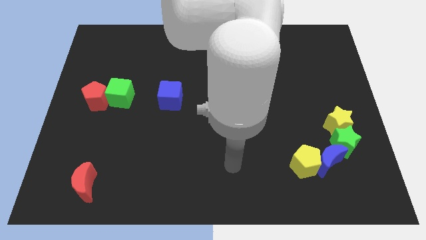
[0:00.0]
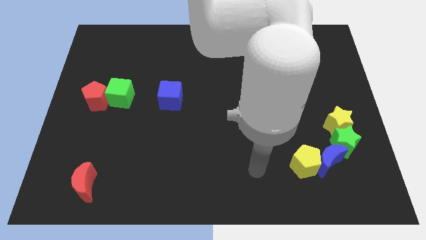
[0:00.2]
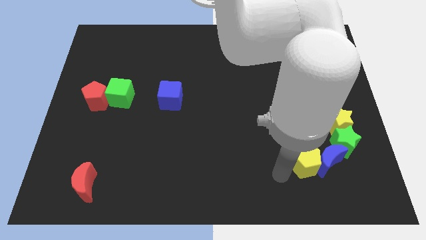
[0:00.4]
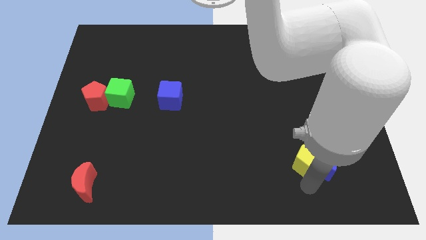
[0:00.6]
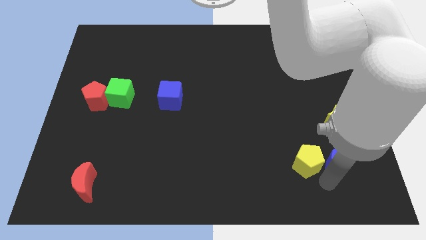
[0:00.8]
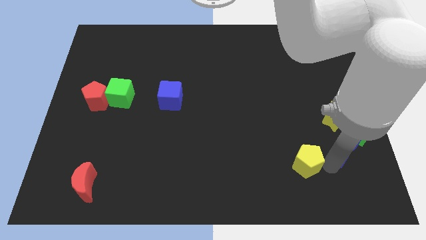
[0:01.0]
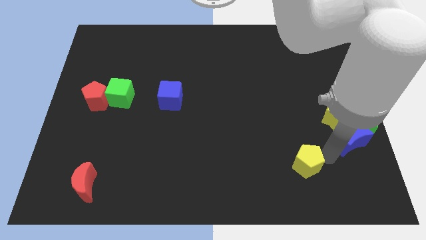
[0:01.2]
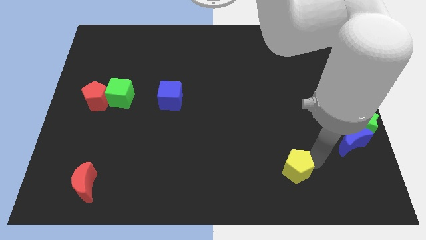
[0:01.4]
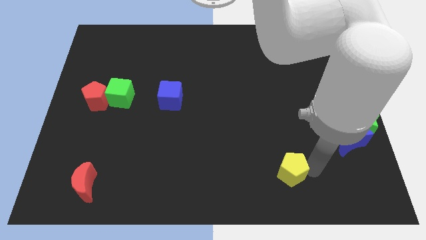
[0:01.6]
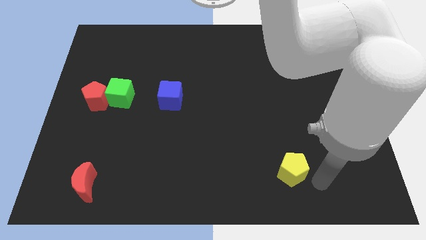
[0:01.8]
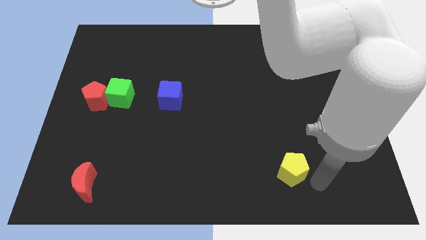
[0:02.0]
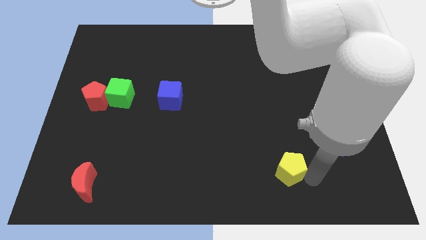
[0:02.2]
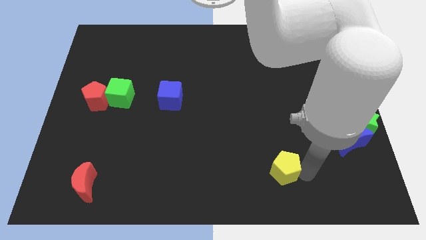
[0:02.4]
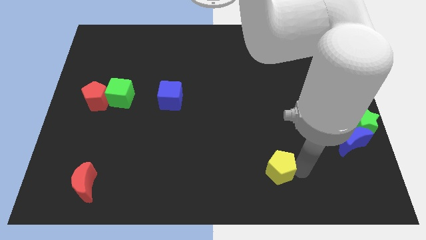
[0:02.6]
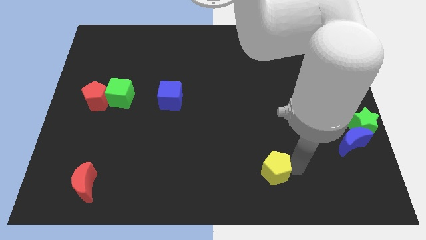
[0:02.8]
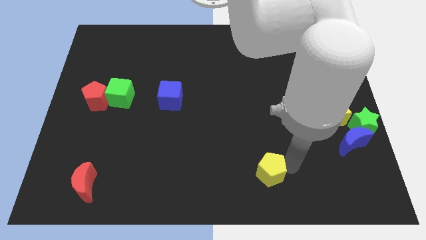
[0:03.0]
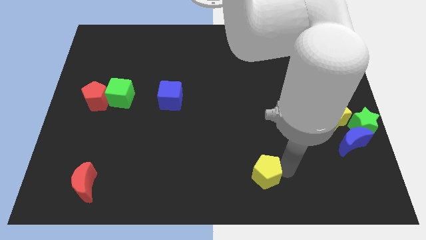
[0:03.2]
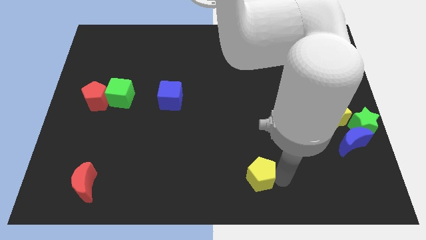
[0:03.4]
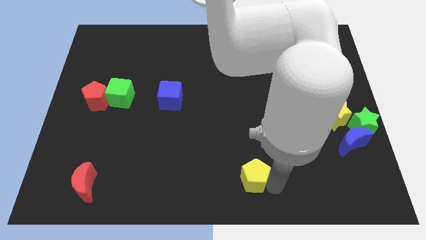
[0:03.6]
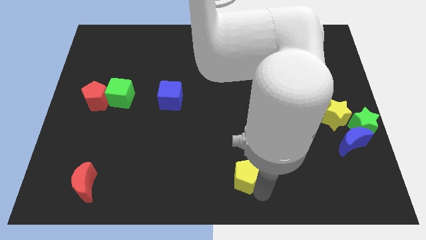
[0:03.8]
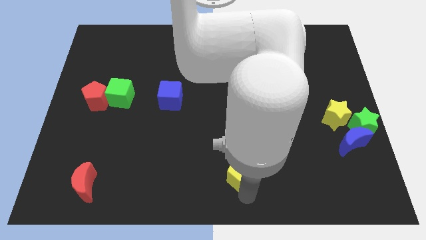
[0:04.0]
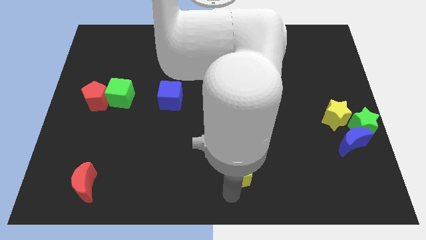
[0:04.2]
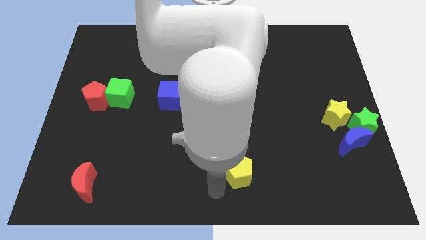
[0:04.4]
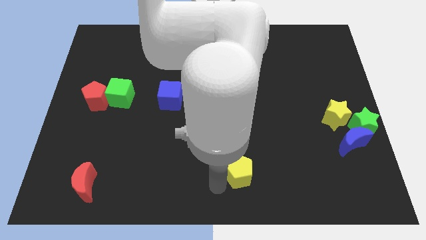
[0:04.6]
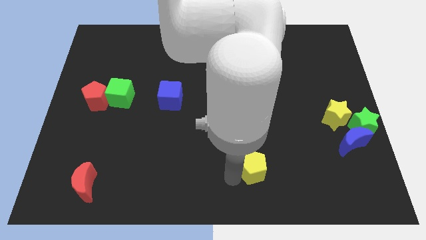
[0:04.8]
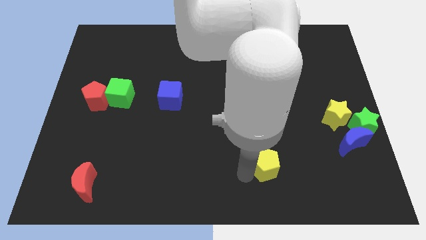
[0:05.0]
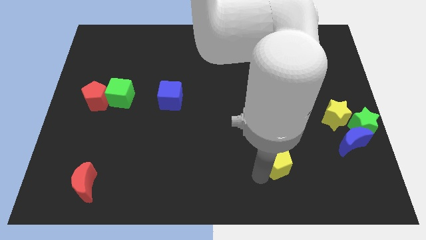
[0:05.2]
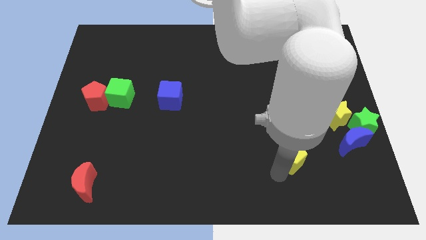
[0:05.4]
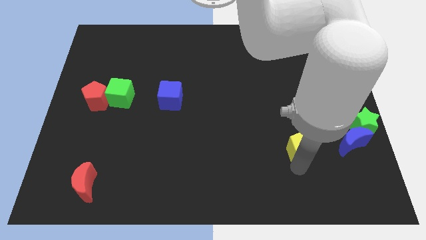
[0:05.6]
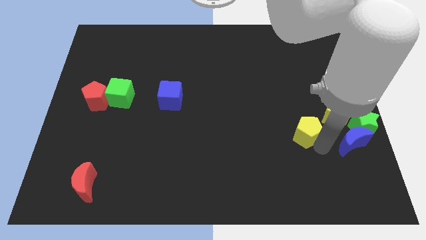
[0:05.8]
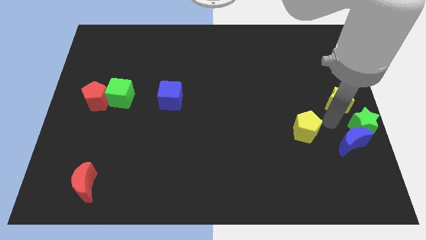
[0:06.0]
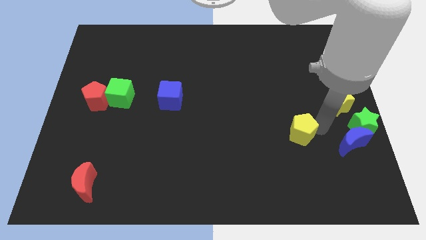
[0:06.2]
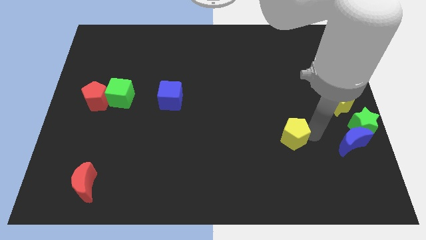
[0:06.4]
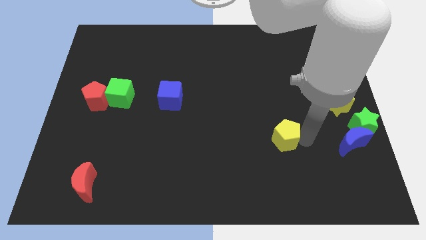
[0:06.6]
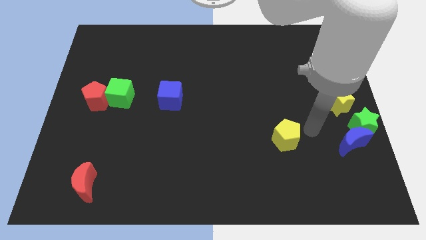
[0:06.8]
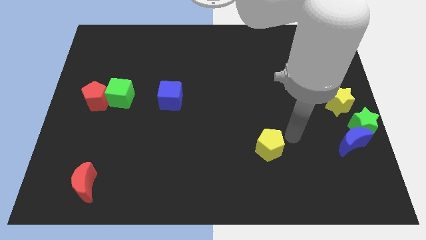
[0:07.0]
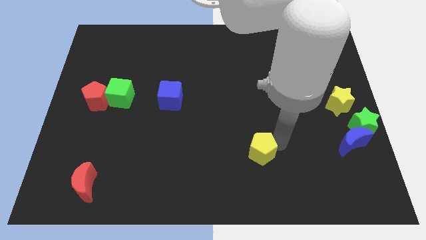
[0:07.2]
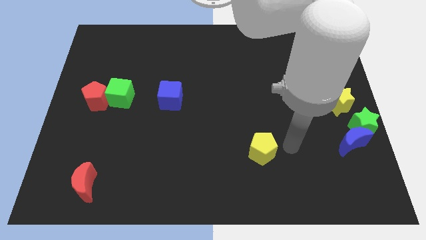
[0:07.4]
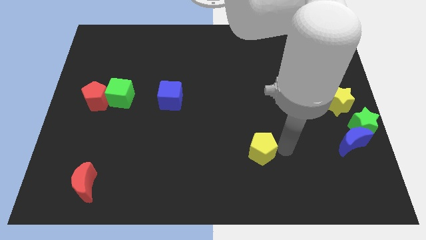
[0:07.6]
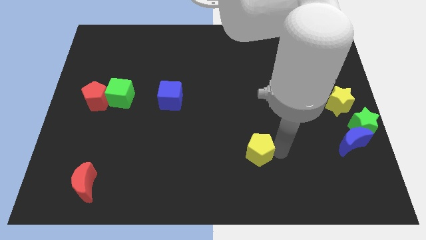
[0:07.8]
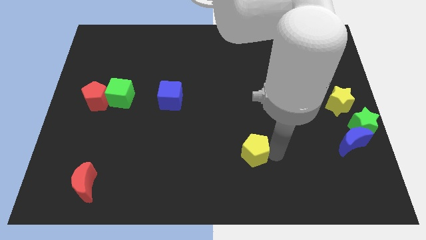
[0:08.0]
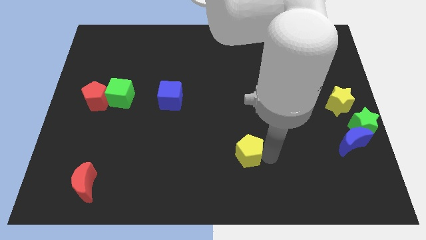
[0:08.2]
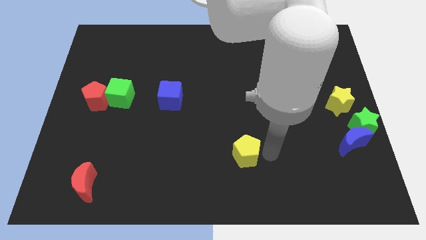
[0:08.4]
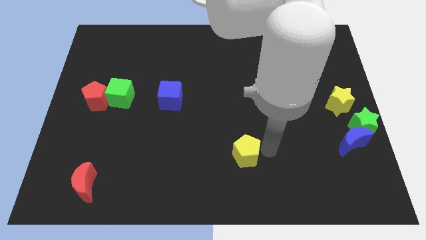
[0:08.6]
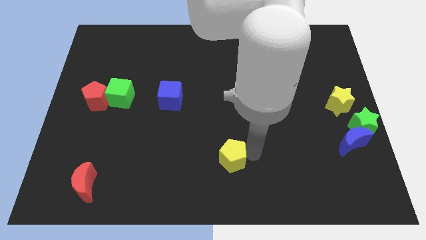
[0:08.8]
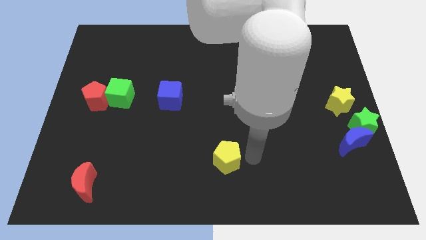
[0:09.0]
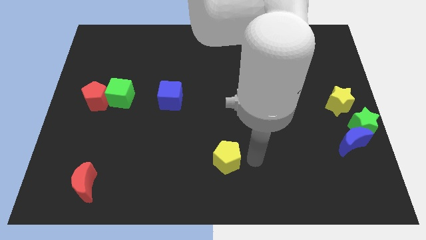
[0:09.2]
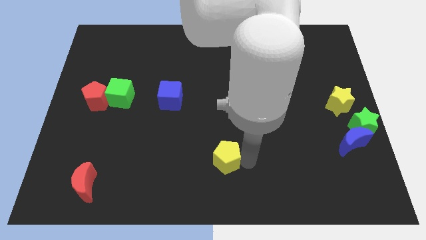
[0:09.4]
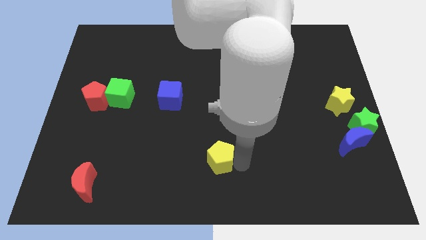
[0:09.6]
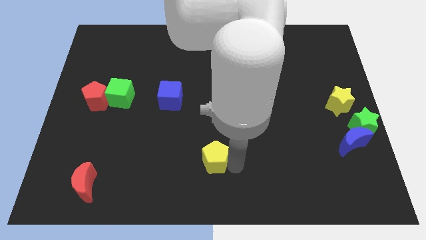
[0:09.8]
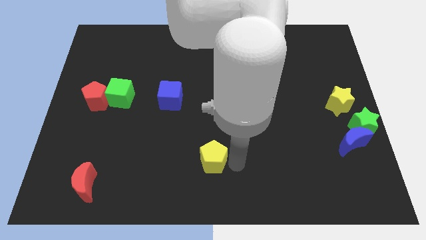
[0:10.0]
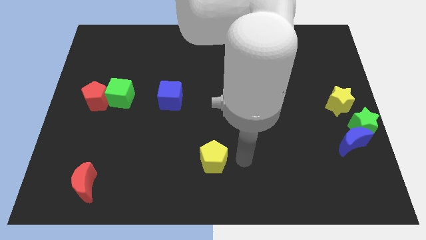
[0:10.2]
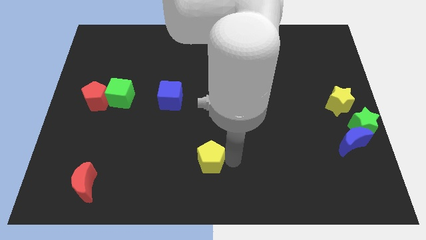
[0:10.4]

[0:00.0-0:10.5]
move the yellow pentagon to the left

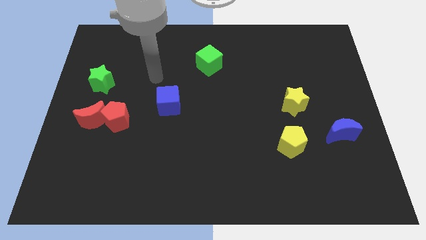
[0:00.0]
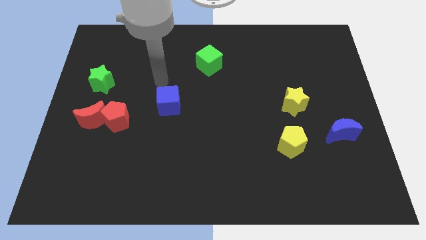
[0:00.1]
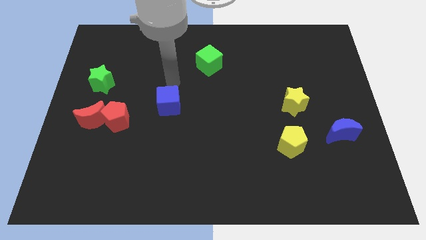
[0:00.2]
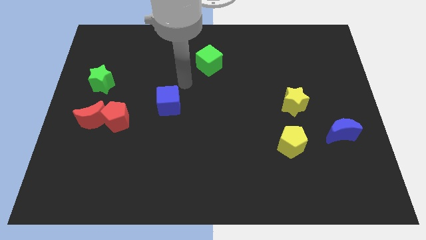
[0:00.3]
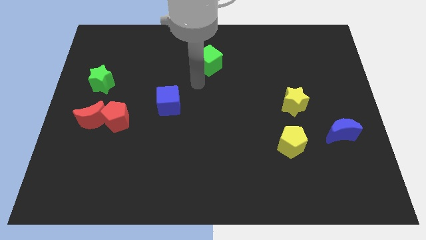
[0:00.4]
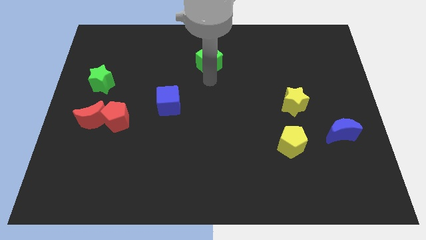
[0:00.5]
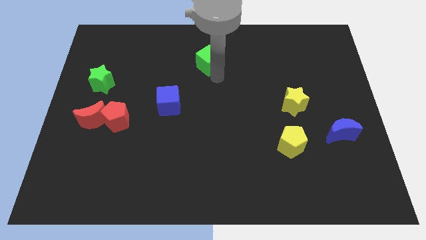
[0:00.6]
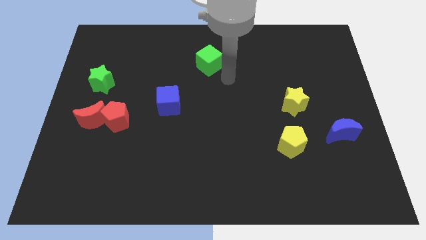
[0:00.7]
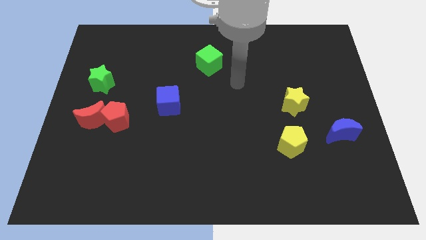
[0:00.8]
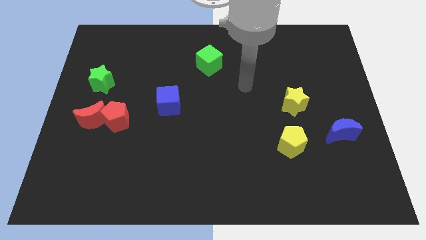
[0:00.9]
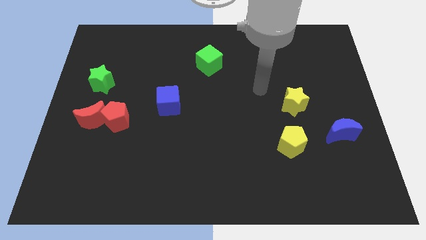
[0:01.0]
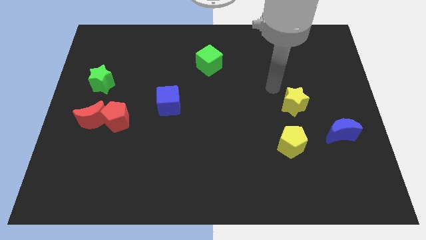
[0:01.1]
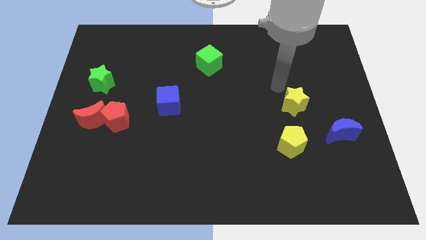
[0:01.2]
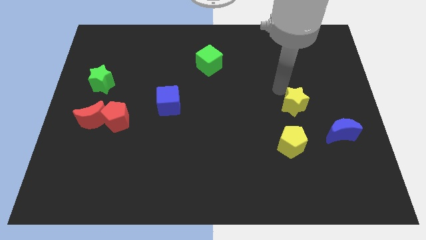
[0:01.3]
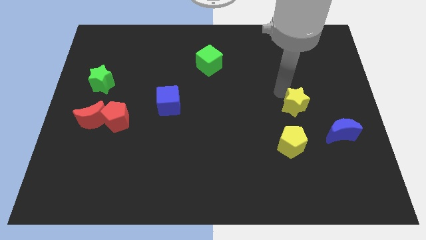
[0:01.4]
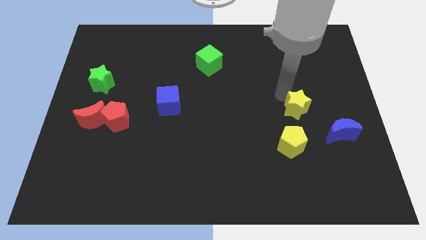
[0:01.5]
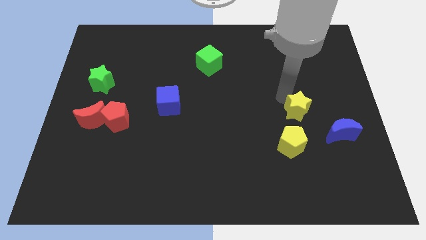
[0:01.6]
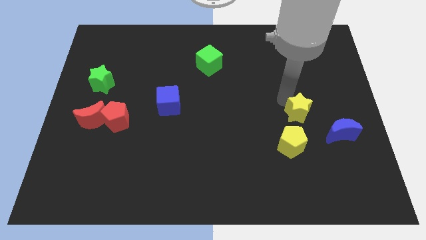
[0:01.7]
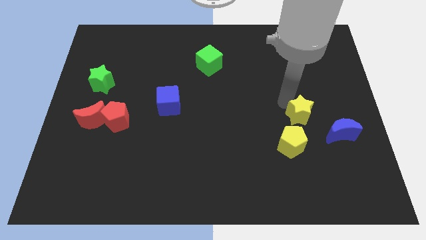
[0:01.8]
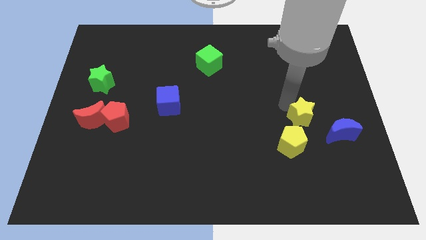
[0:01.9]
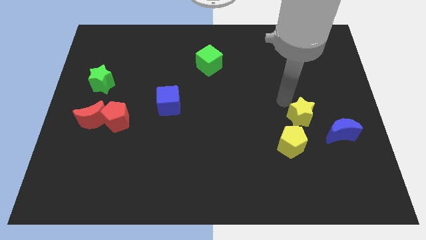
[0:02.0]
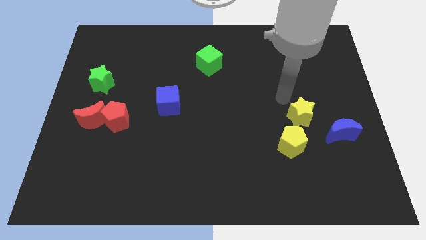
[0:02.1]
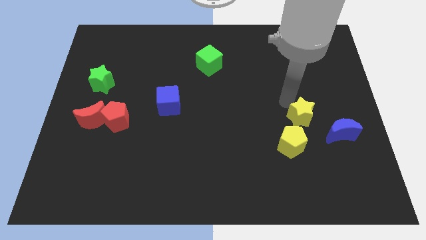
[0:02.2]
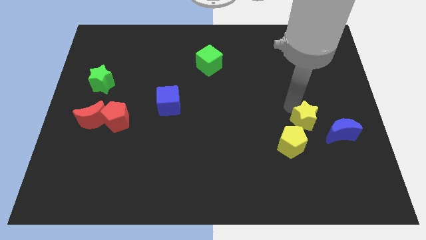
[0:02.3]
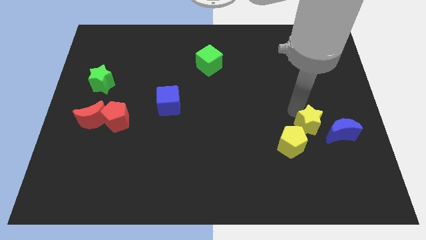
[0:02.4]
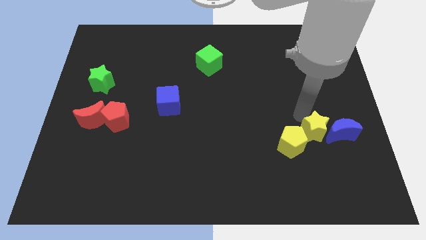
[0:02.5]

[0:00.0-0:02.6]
slide the yellow star a little bit downwards

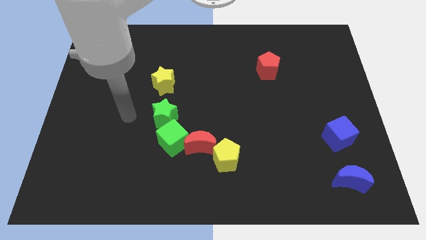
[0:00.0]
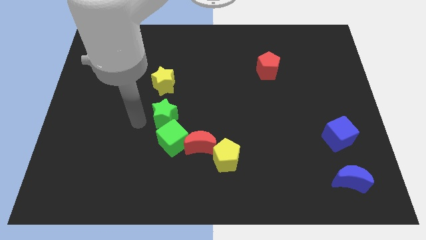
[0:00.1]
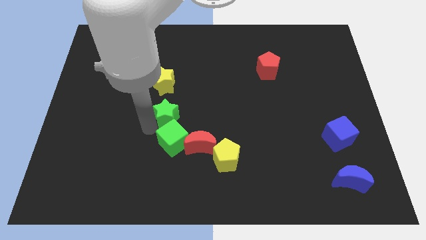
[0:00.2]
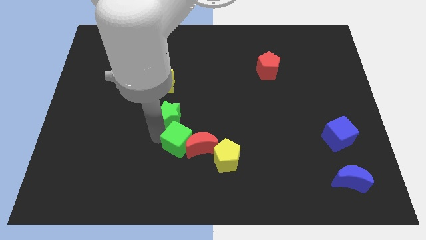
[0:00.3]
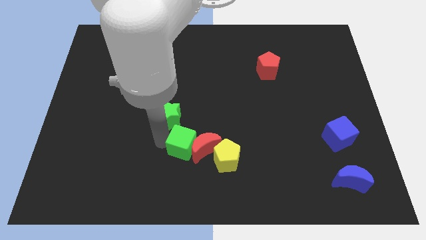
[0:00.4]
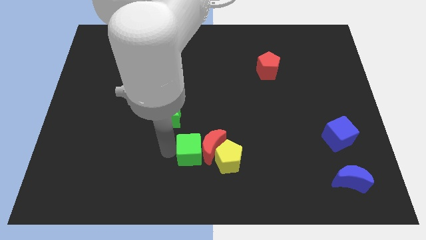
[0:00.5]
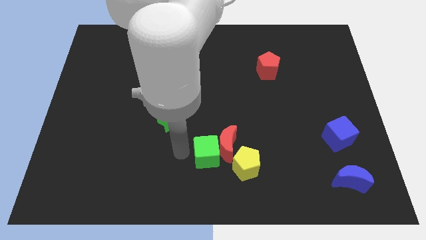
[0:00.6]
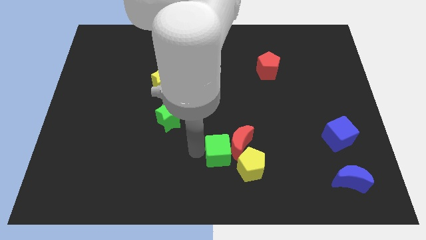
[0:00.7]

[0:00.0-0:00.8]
move the red moon right a little
